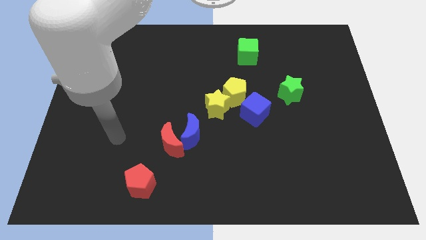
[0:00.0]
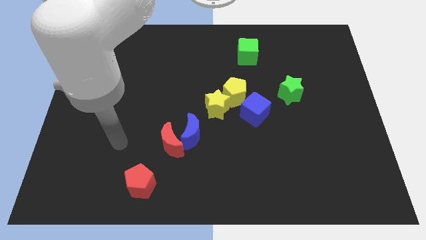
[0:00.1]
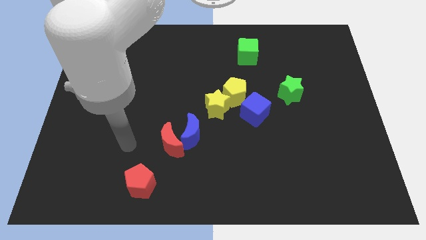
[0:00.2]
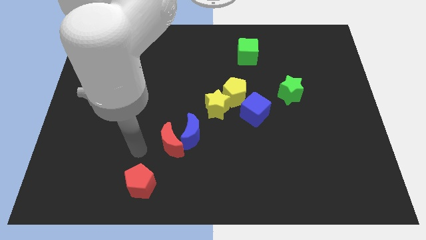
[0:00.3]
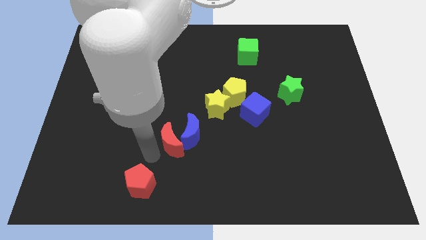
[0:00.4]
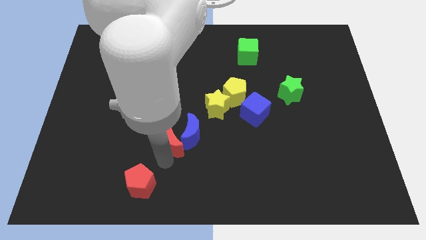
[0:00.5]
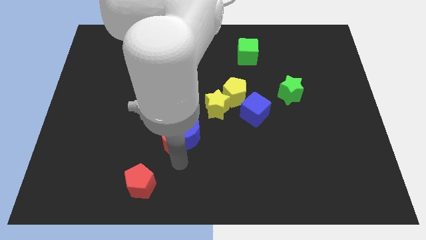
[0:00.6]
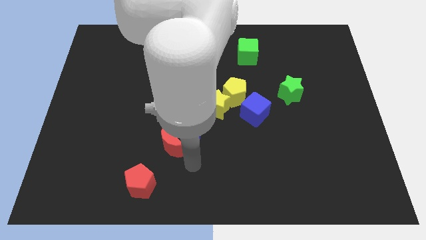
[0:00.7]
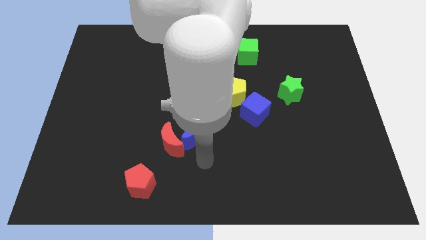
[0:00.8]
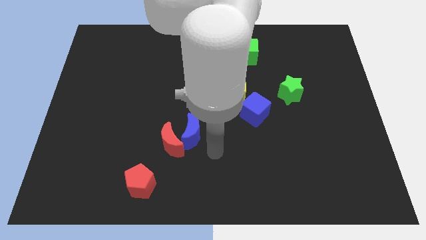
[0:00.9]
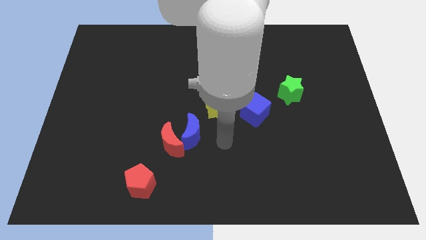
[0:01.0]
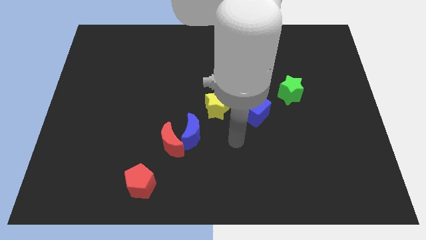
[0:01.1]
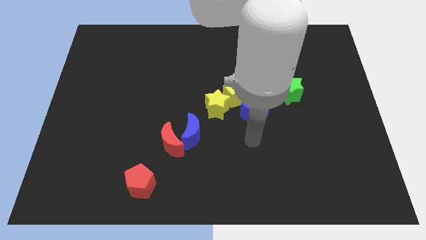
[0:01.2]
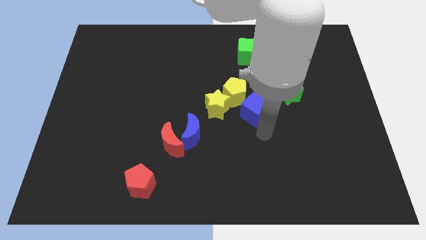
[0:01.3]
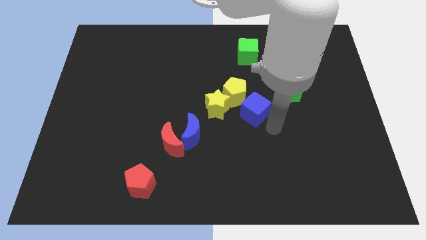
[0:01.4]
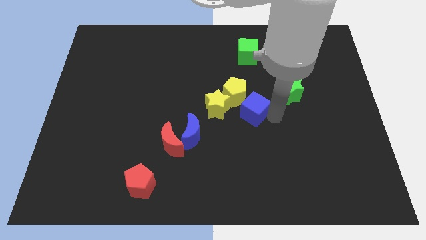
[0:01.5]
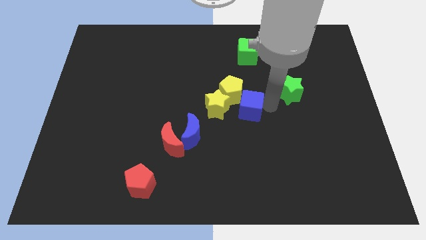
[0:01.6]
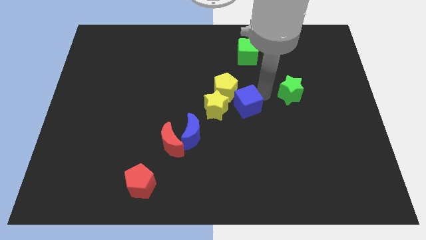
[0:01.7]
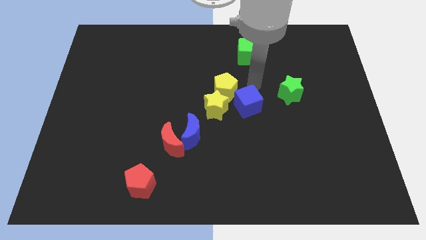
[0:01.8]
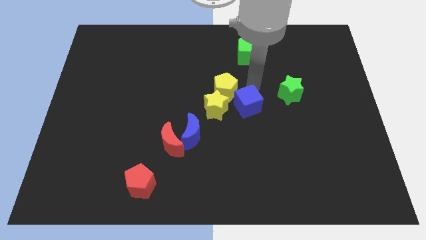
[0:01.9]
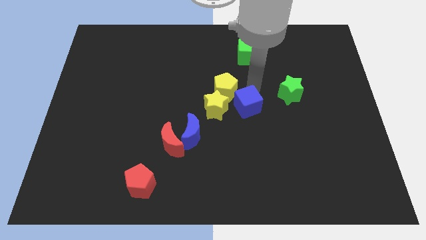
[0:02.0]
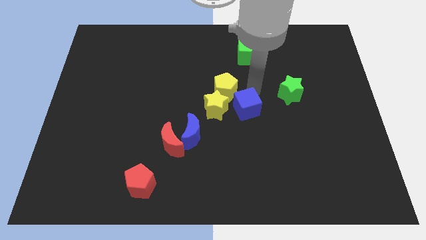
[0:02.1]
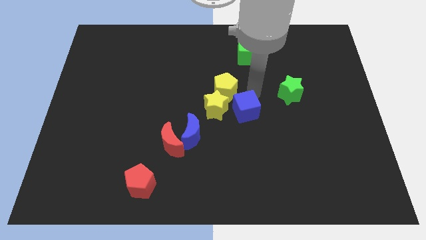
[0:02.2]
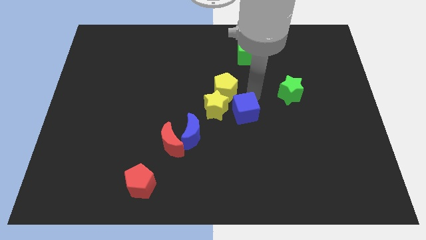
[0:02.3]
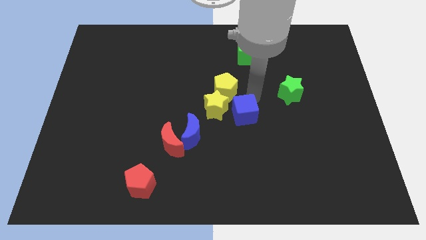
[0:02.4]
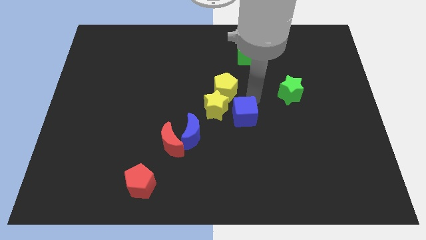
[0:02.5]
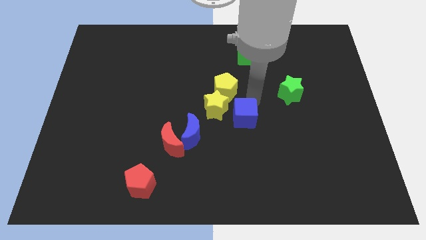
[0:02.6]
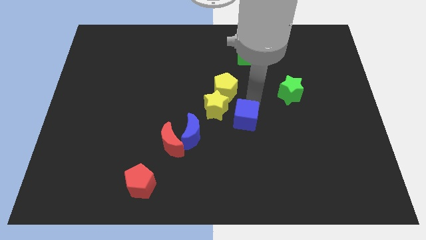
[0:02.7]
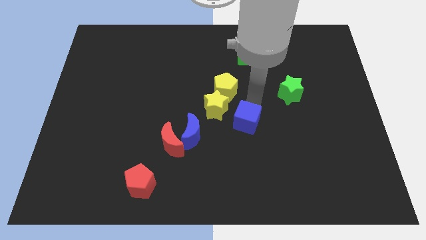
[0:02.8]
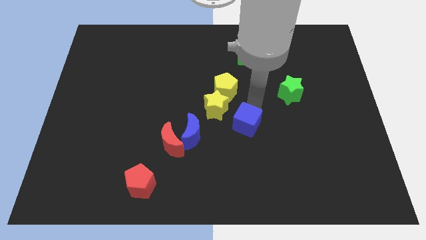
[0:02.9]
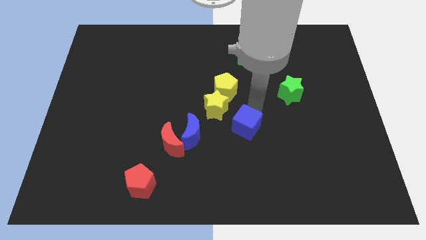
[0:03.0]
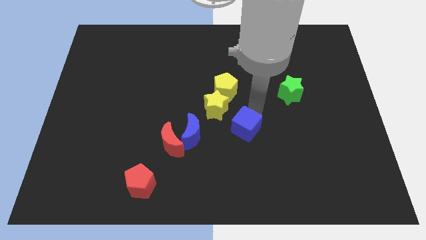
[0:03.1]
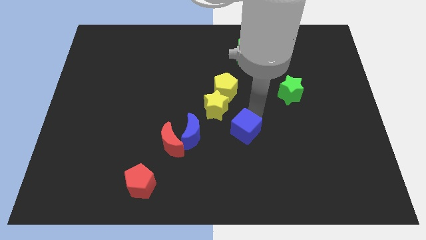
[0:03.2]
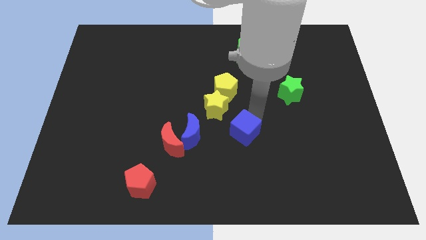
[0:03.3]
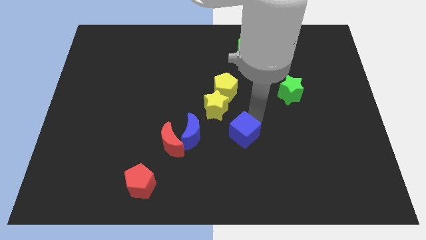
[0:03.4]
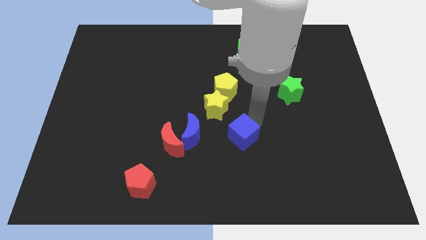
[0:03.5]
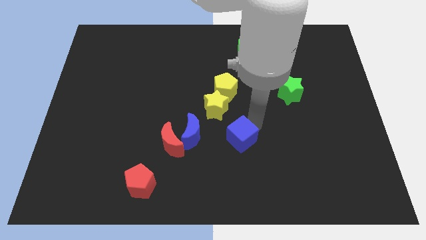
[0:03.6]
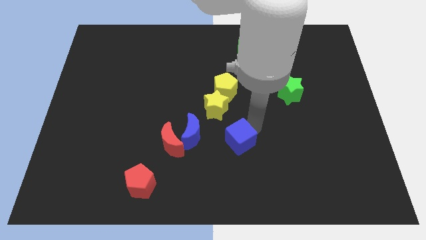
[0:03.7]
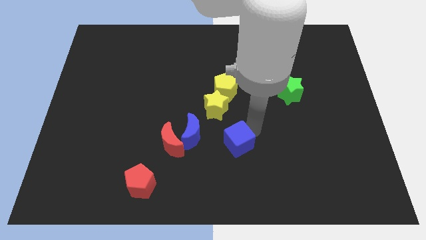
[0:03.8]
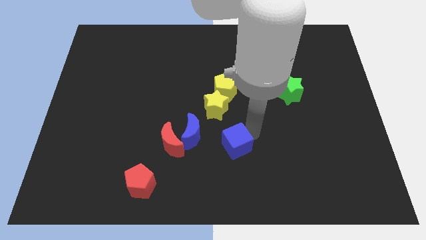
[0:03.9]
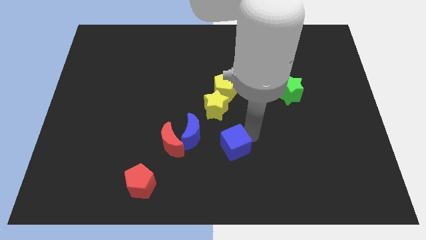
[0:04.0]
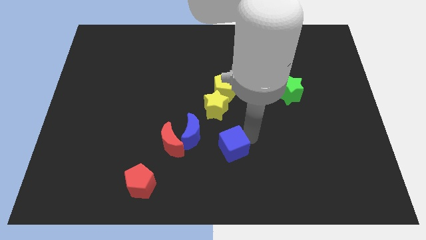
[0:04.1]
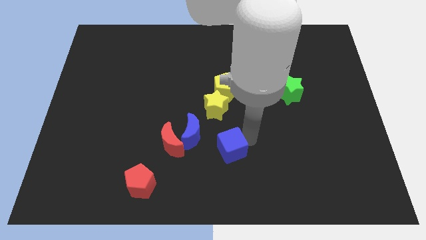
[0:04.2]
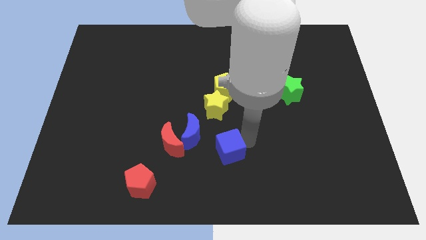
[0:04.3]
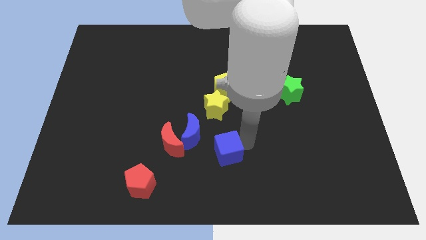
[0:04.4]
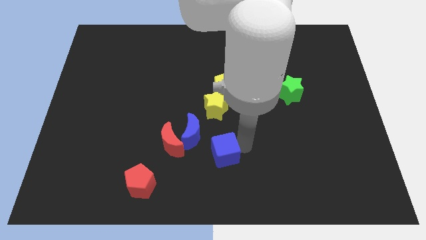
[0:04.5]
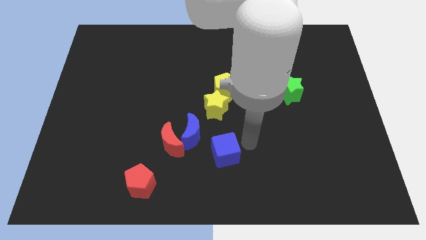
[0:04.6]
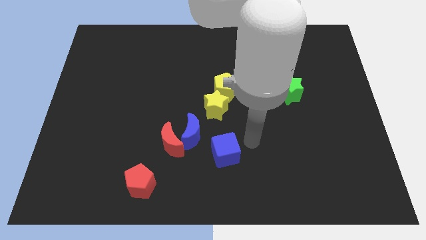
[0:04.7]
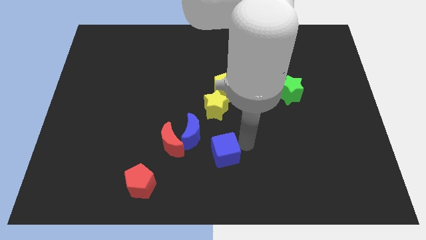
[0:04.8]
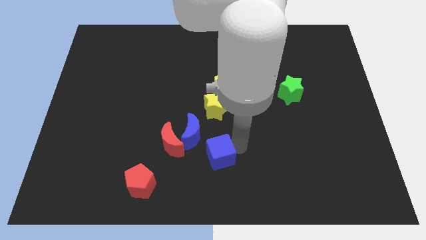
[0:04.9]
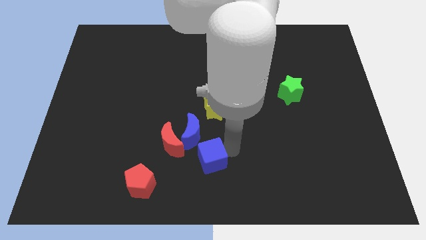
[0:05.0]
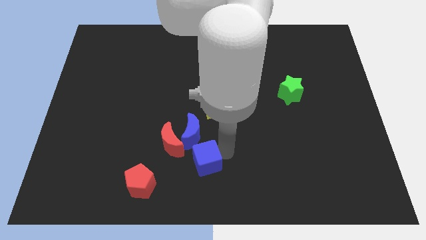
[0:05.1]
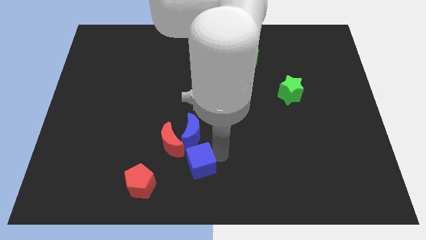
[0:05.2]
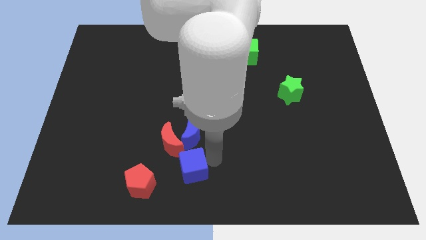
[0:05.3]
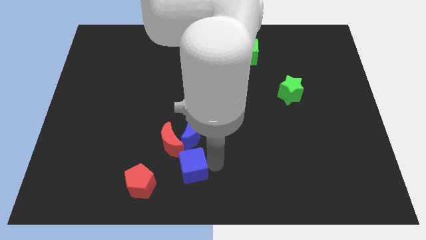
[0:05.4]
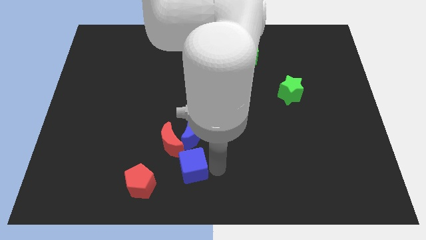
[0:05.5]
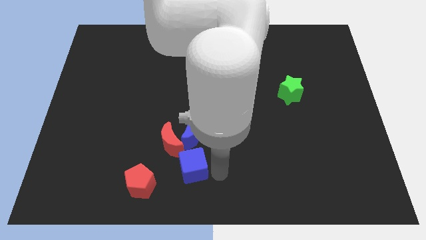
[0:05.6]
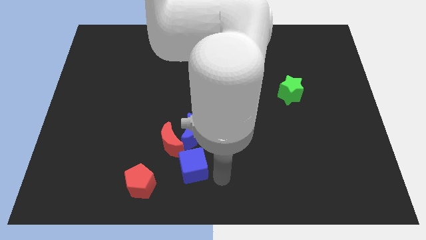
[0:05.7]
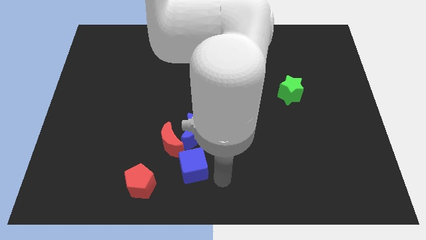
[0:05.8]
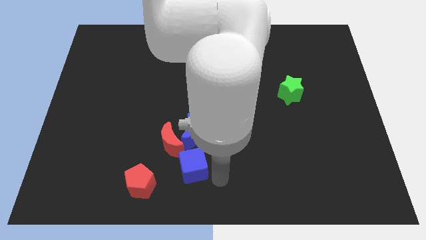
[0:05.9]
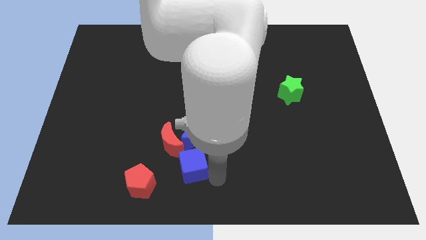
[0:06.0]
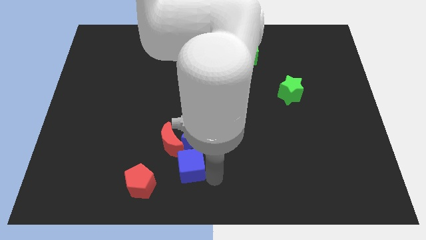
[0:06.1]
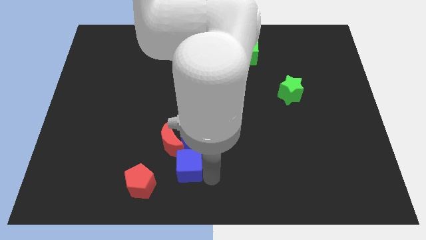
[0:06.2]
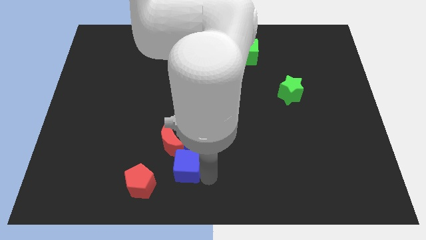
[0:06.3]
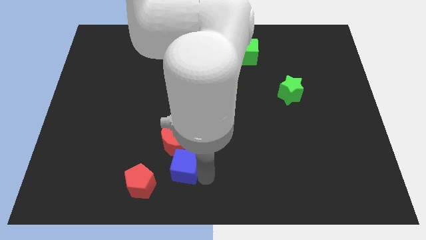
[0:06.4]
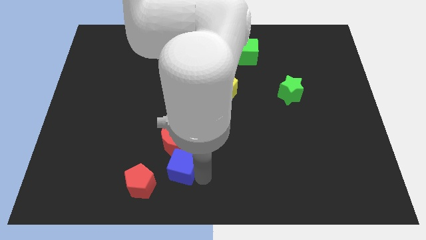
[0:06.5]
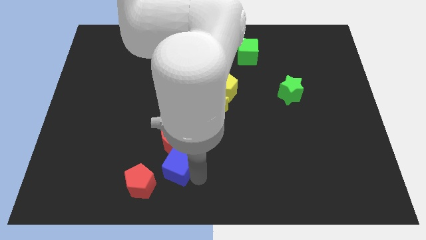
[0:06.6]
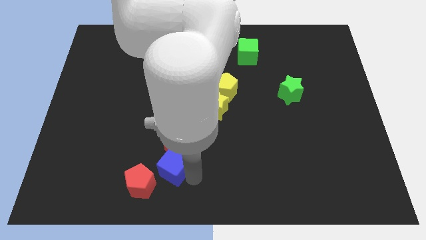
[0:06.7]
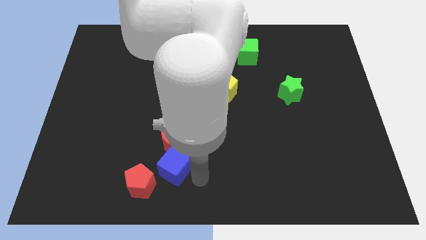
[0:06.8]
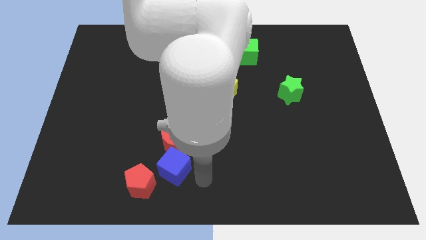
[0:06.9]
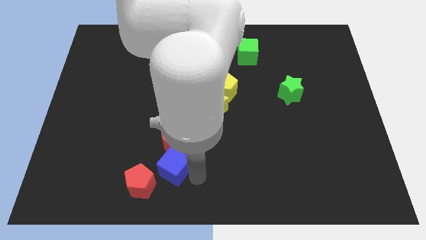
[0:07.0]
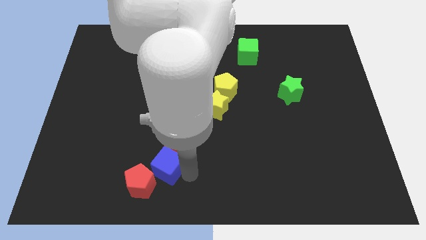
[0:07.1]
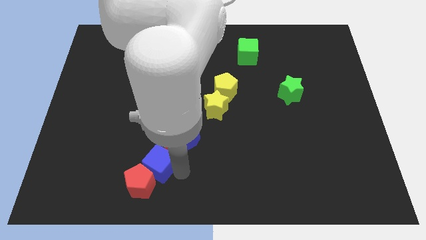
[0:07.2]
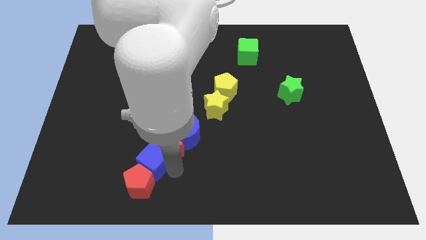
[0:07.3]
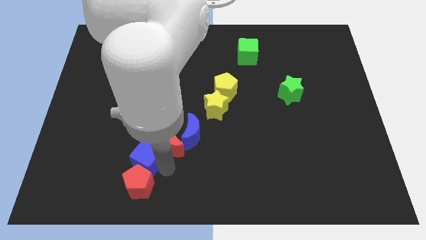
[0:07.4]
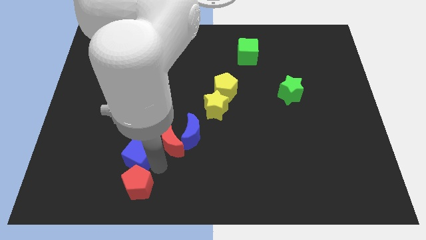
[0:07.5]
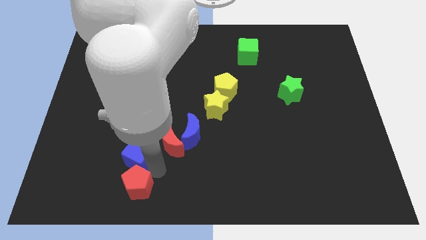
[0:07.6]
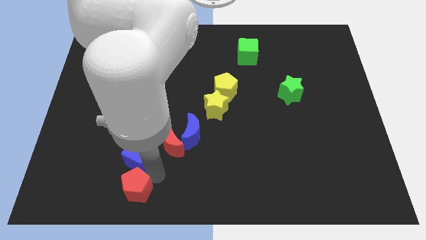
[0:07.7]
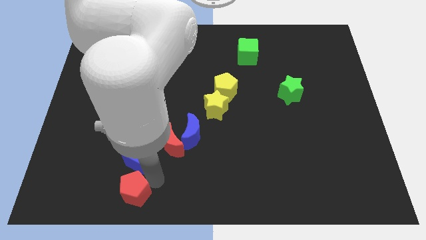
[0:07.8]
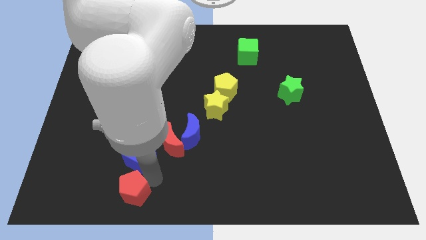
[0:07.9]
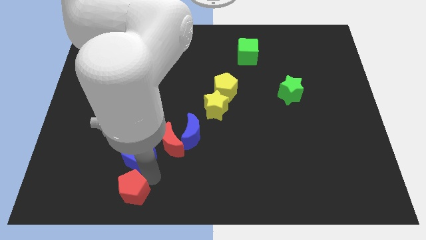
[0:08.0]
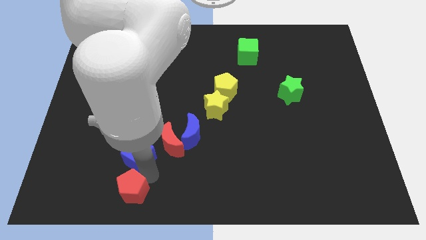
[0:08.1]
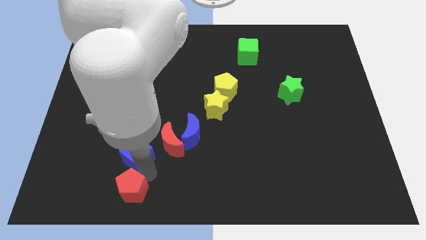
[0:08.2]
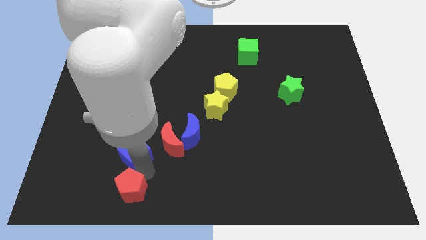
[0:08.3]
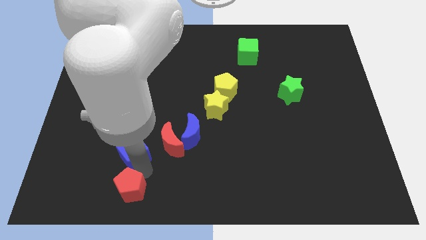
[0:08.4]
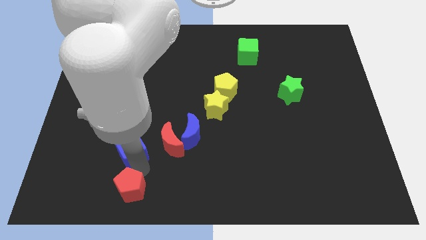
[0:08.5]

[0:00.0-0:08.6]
slide the blue cube left

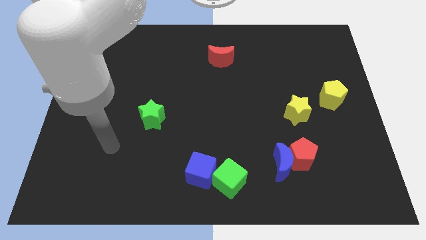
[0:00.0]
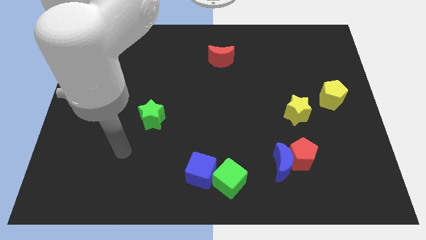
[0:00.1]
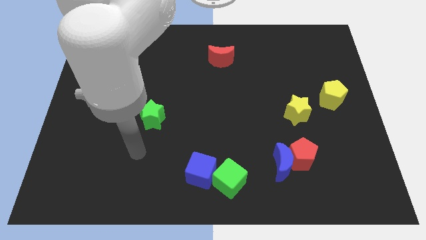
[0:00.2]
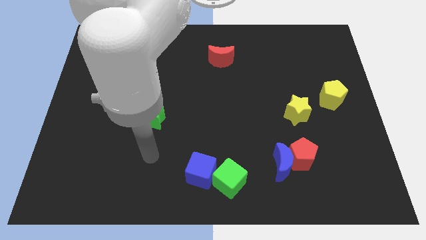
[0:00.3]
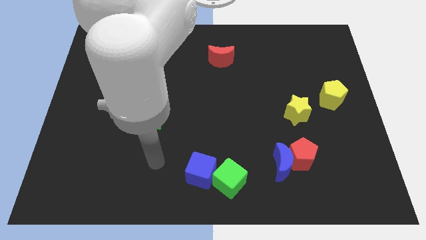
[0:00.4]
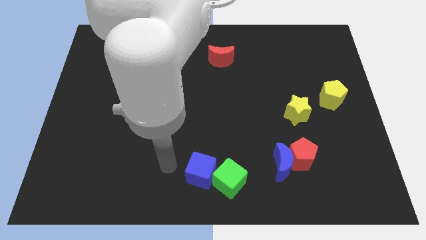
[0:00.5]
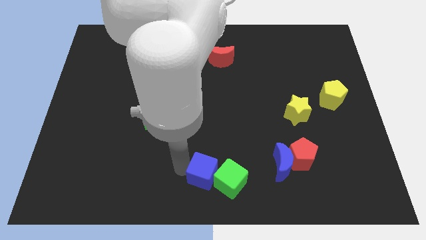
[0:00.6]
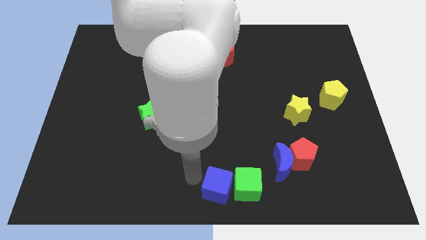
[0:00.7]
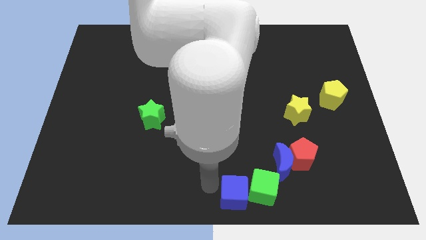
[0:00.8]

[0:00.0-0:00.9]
slightly slide the green cube to the right
